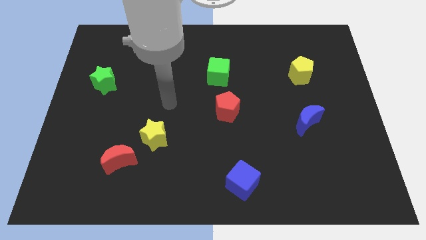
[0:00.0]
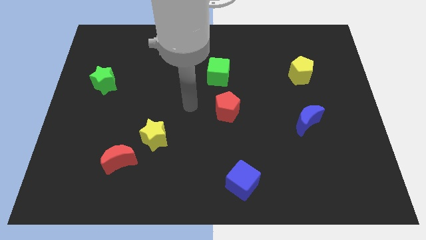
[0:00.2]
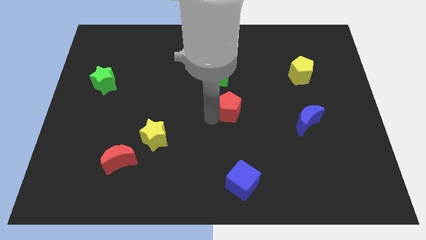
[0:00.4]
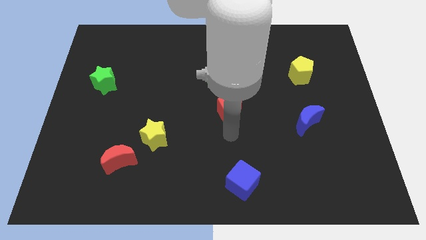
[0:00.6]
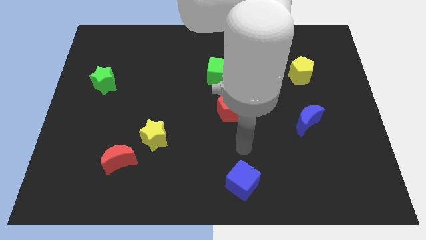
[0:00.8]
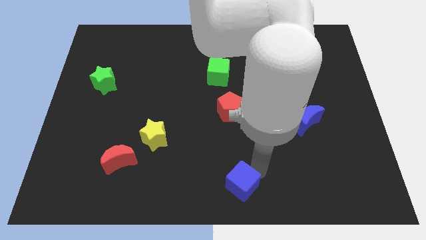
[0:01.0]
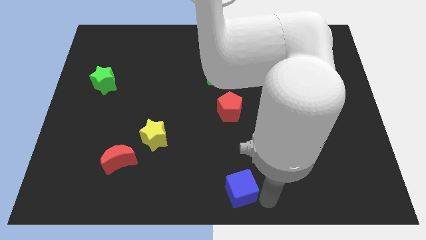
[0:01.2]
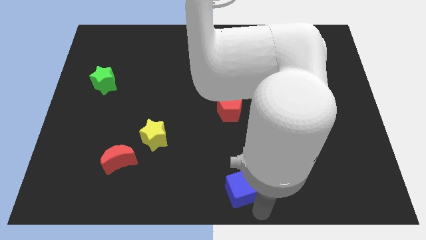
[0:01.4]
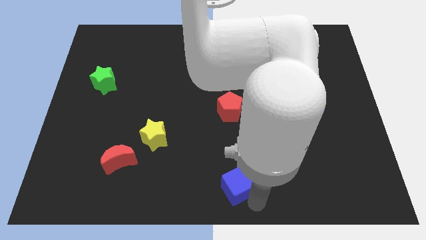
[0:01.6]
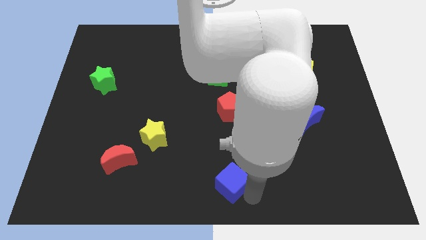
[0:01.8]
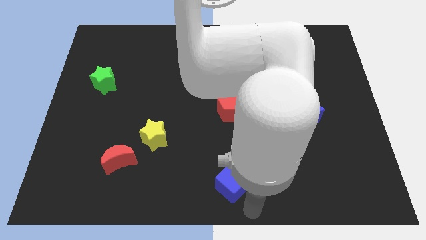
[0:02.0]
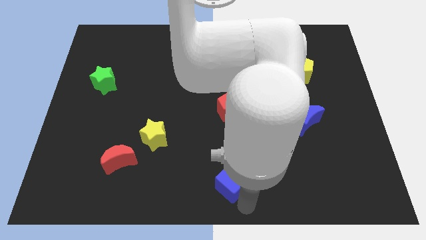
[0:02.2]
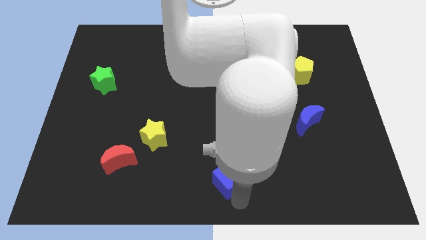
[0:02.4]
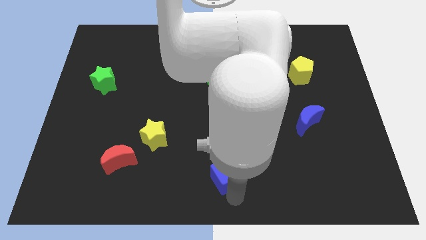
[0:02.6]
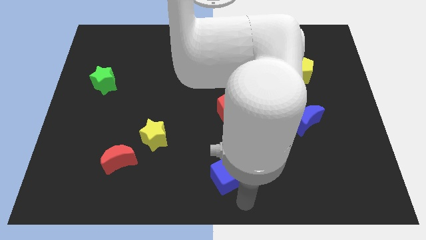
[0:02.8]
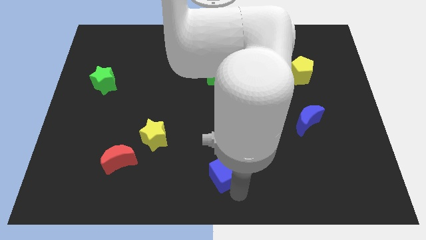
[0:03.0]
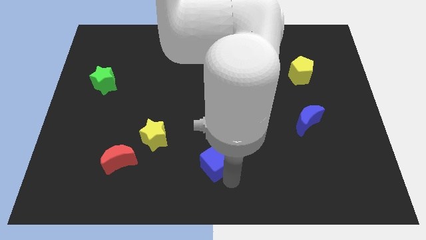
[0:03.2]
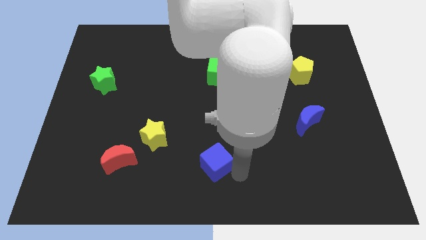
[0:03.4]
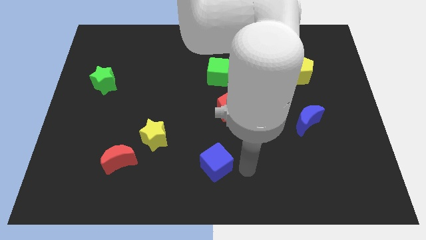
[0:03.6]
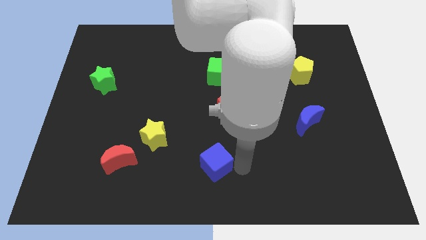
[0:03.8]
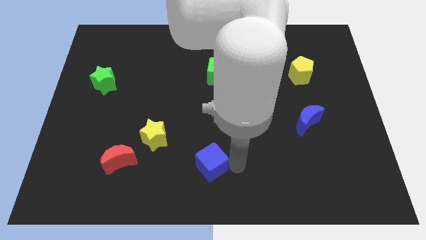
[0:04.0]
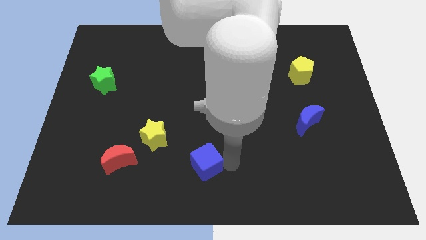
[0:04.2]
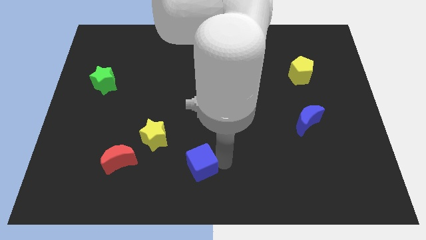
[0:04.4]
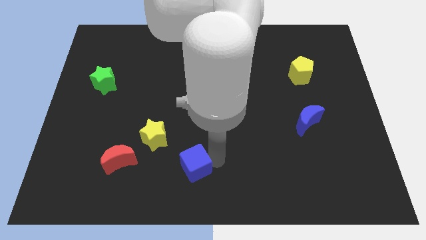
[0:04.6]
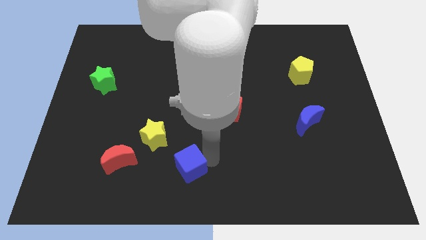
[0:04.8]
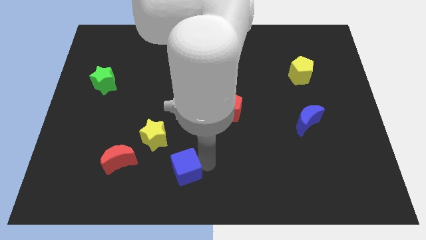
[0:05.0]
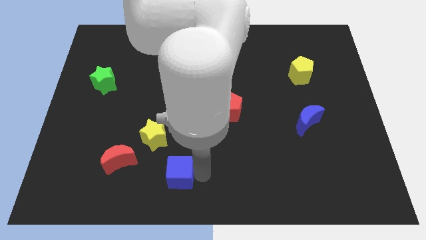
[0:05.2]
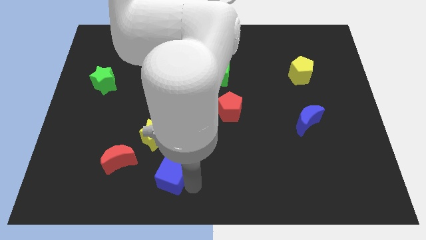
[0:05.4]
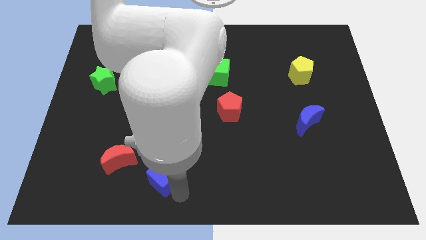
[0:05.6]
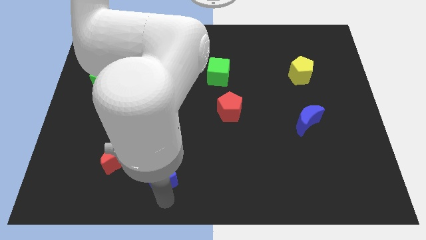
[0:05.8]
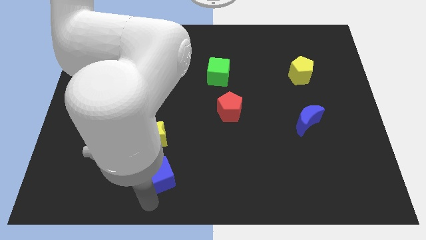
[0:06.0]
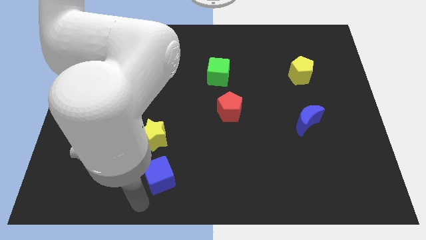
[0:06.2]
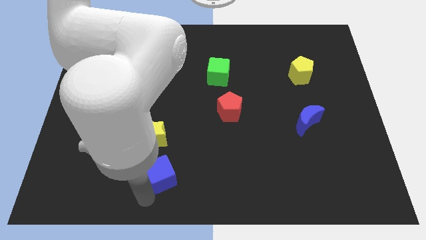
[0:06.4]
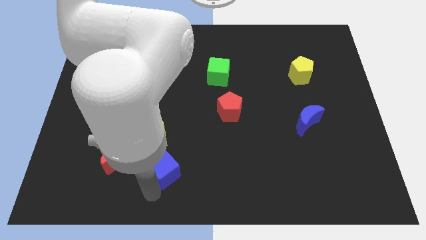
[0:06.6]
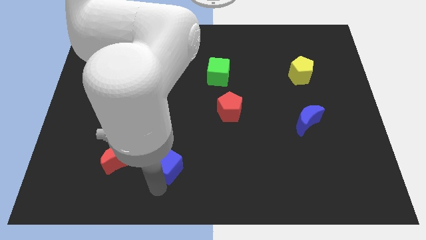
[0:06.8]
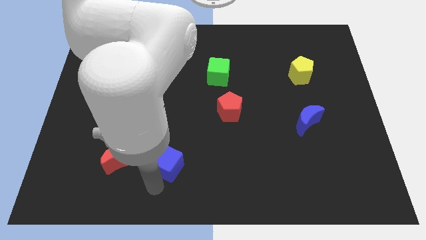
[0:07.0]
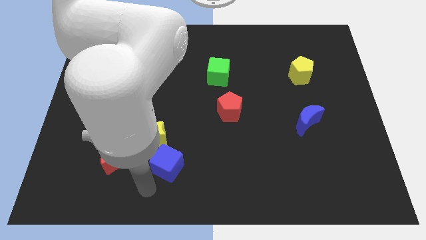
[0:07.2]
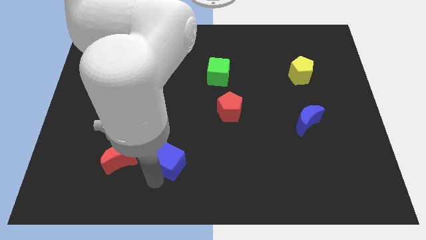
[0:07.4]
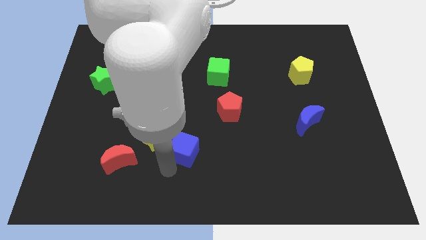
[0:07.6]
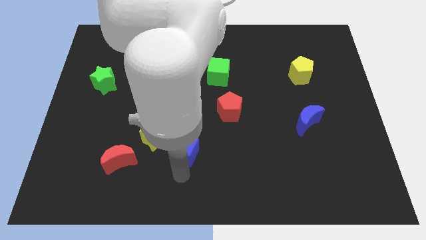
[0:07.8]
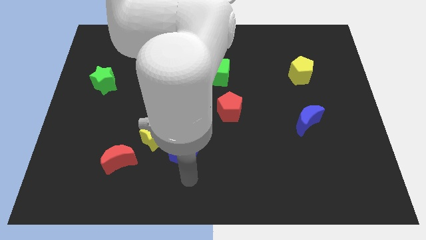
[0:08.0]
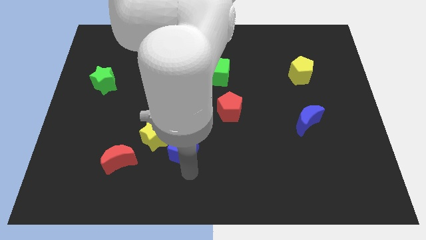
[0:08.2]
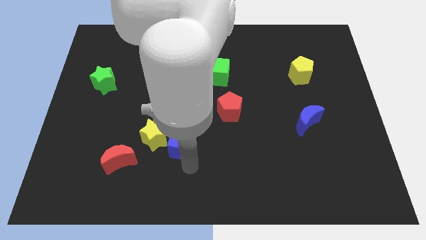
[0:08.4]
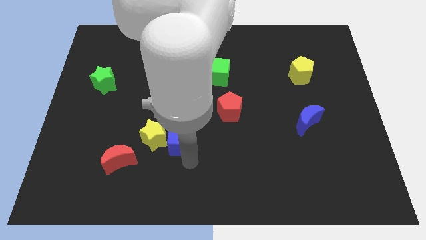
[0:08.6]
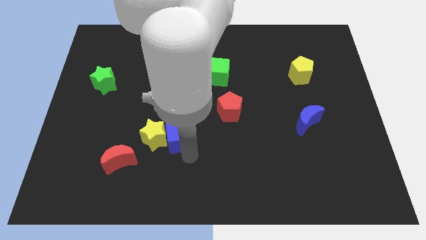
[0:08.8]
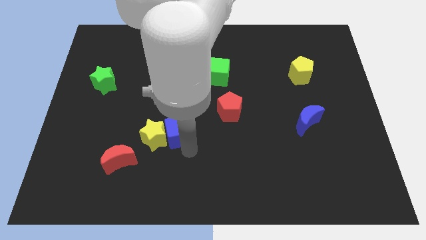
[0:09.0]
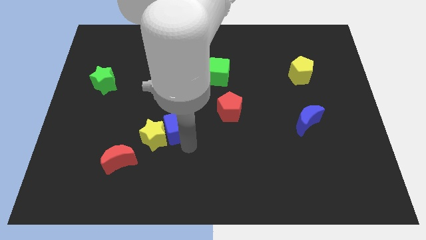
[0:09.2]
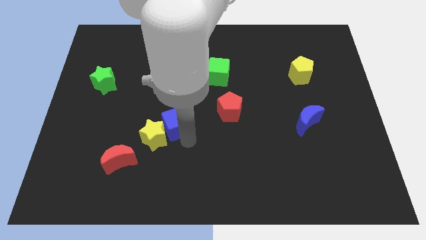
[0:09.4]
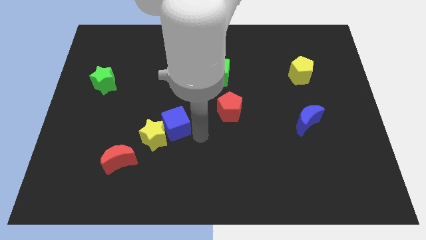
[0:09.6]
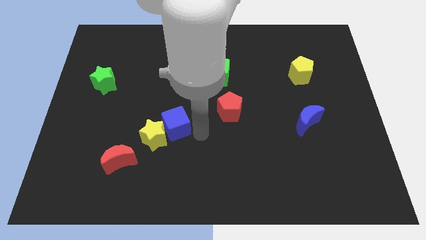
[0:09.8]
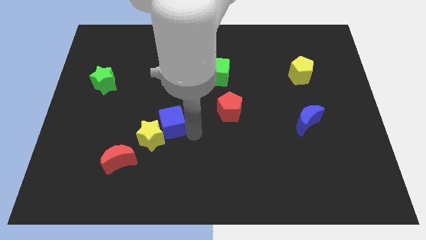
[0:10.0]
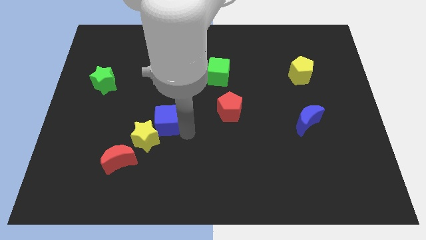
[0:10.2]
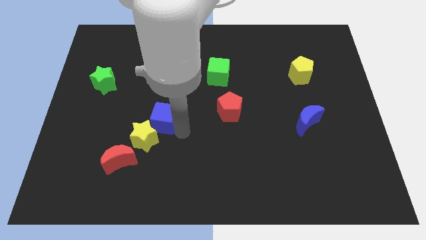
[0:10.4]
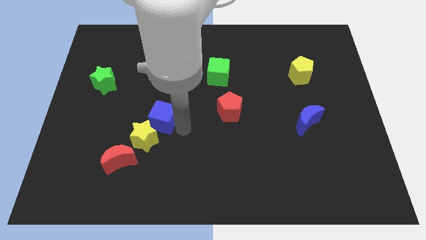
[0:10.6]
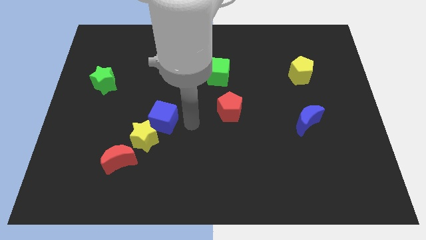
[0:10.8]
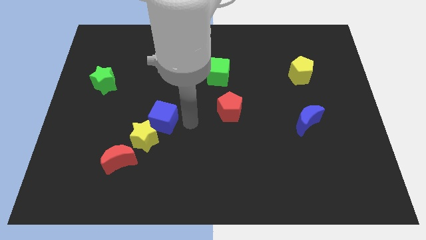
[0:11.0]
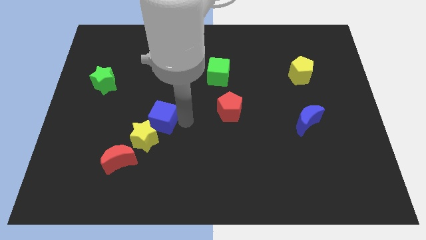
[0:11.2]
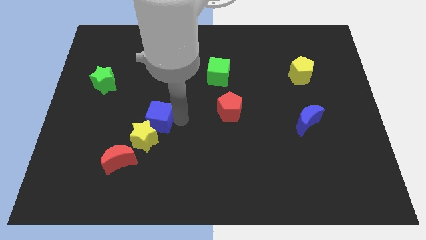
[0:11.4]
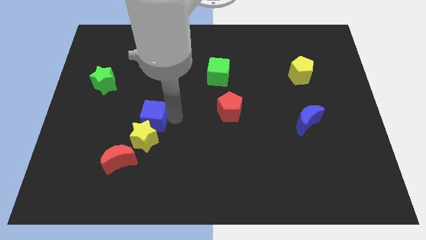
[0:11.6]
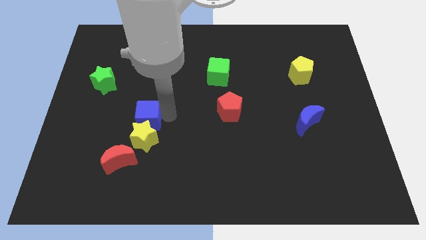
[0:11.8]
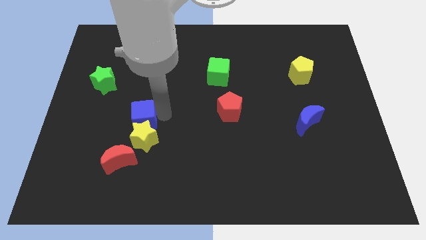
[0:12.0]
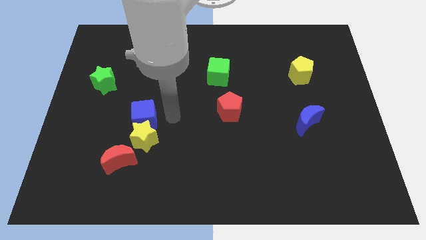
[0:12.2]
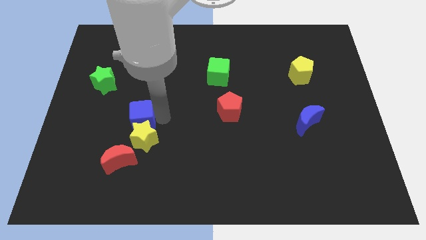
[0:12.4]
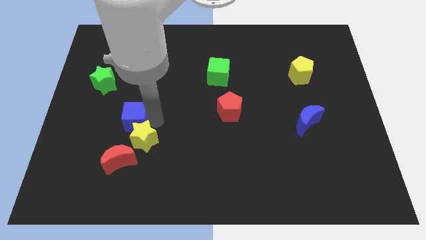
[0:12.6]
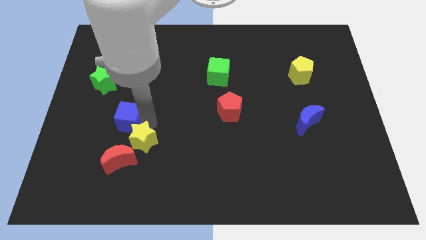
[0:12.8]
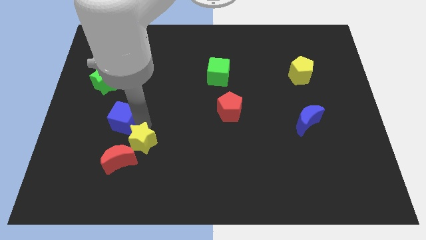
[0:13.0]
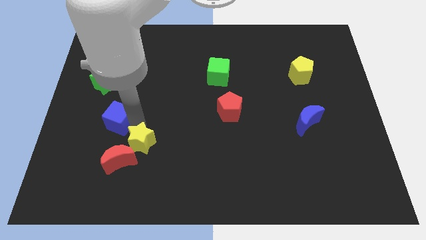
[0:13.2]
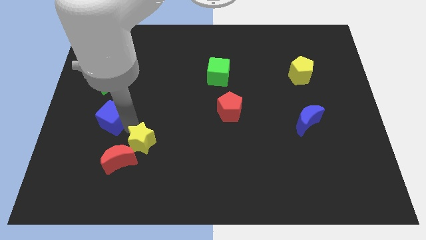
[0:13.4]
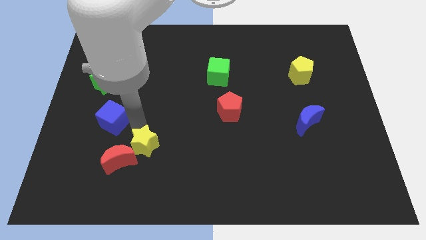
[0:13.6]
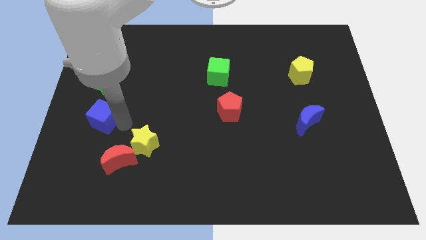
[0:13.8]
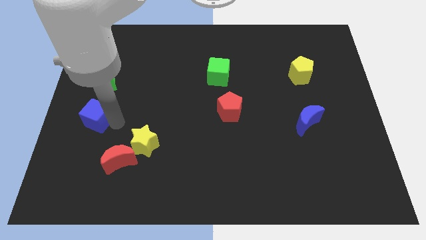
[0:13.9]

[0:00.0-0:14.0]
put the blue cube to the left side

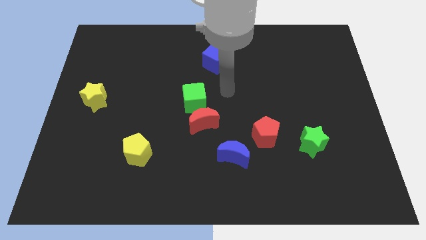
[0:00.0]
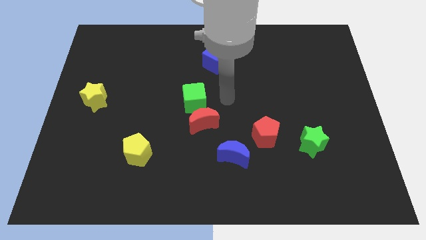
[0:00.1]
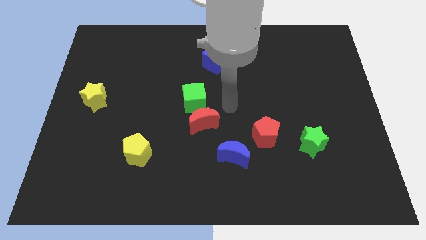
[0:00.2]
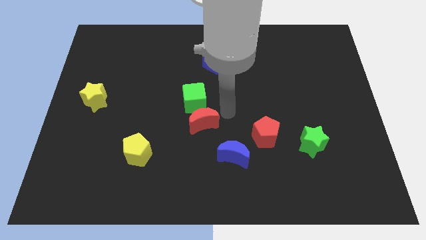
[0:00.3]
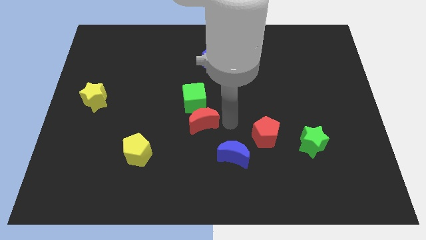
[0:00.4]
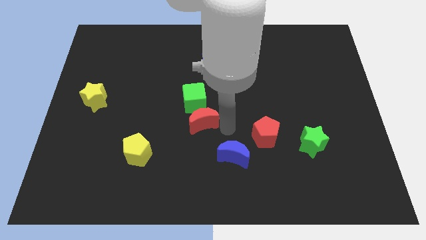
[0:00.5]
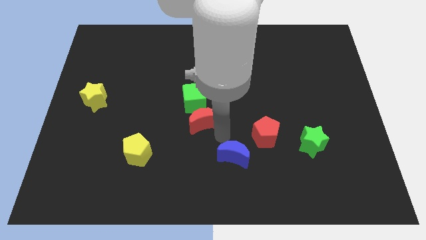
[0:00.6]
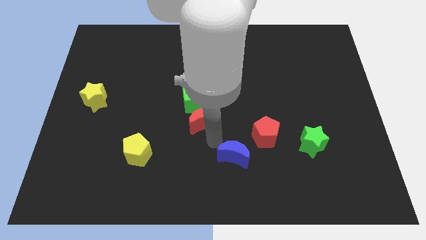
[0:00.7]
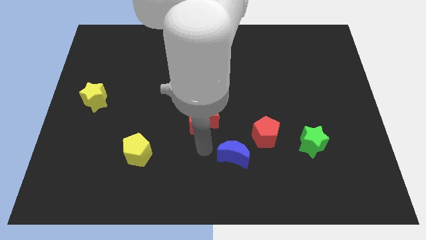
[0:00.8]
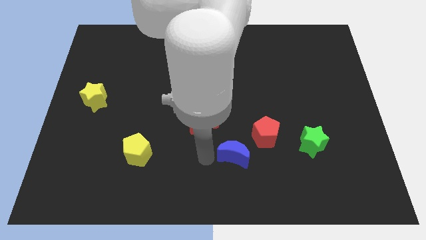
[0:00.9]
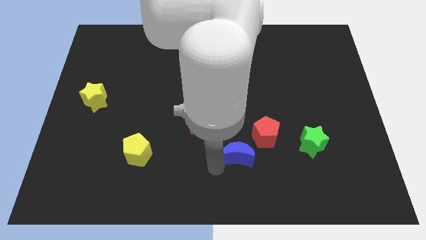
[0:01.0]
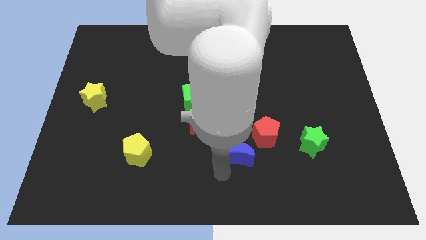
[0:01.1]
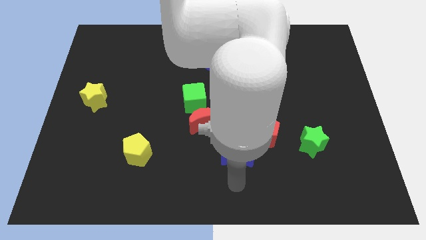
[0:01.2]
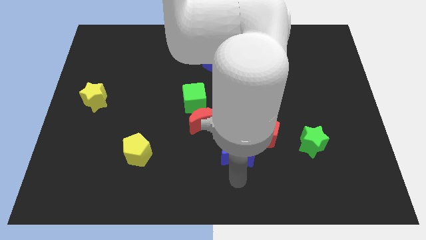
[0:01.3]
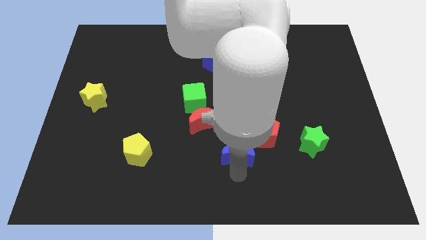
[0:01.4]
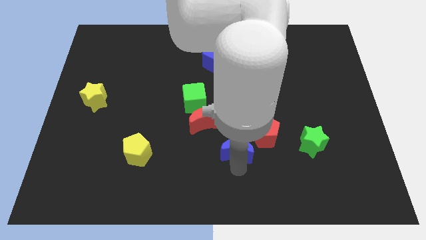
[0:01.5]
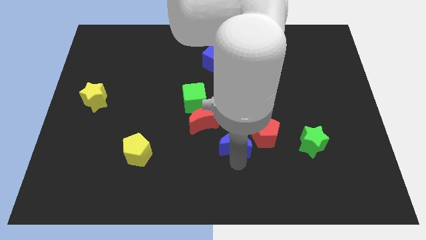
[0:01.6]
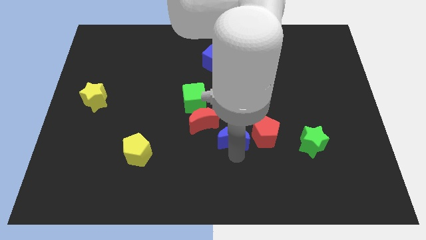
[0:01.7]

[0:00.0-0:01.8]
move the blue moon to the middle of the board
